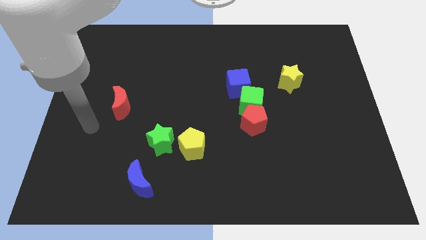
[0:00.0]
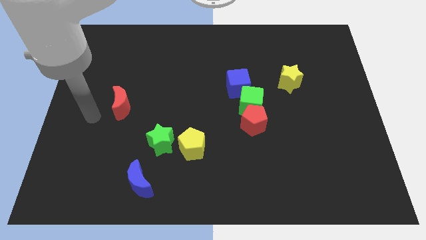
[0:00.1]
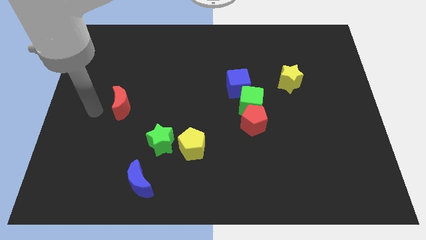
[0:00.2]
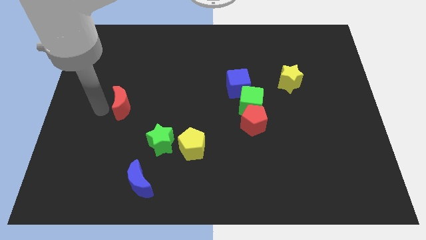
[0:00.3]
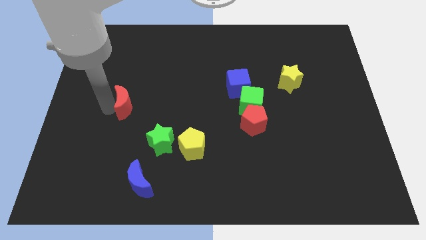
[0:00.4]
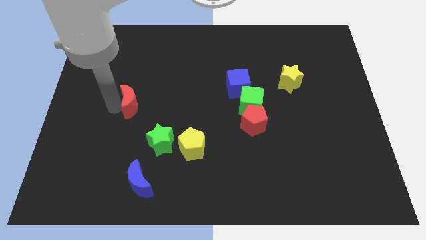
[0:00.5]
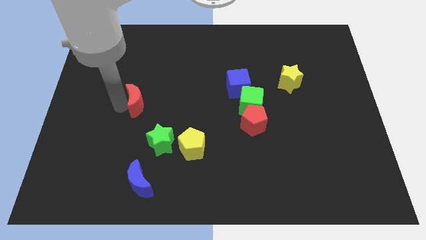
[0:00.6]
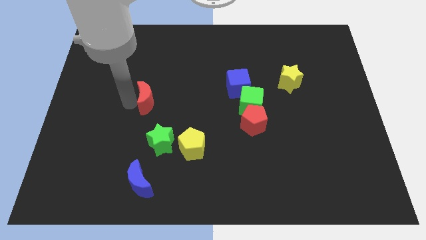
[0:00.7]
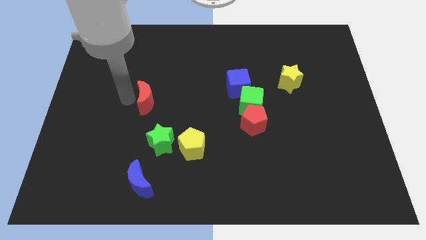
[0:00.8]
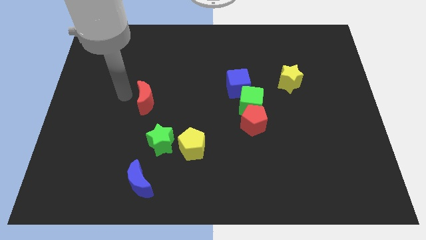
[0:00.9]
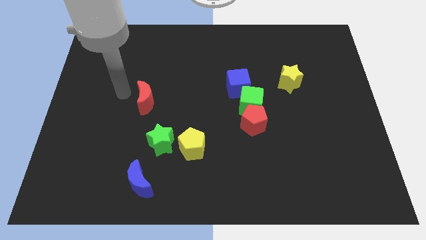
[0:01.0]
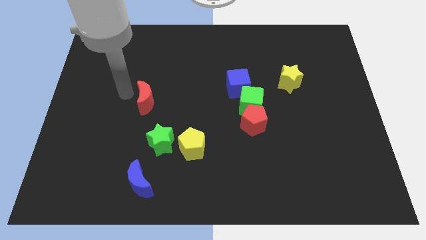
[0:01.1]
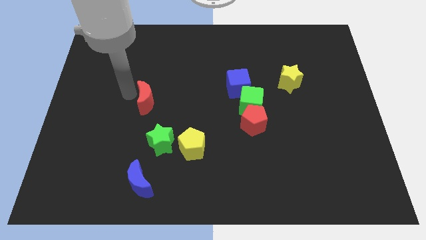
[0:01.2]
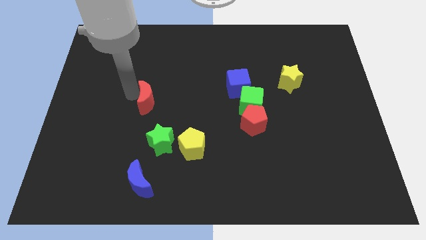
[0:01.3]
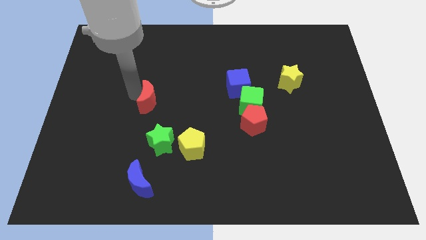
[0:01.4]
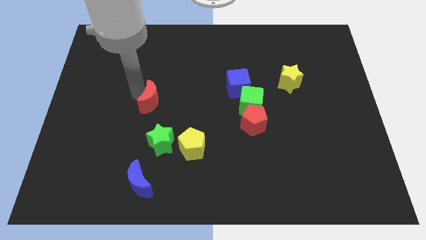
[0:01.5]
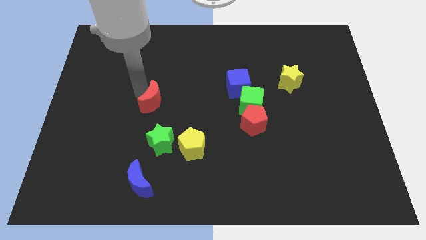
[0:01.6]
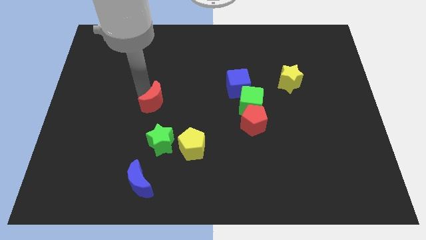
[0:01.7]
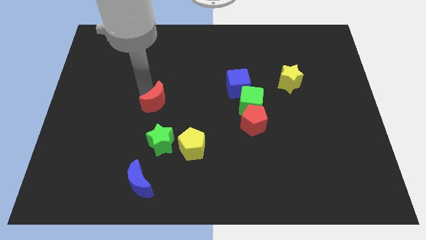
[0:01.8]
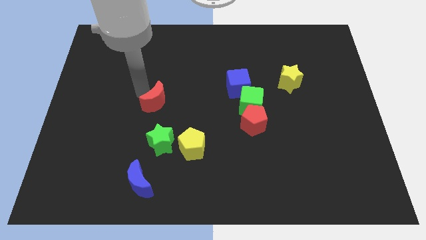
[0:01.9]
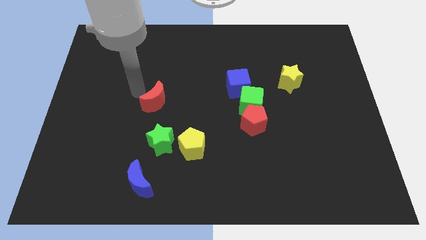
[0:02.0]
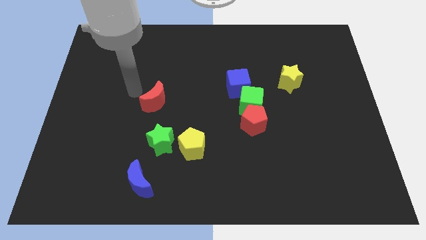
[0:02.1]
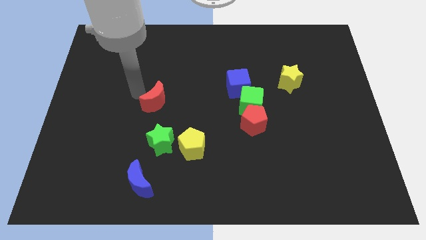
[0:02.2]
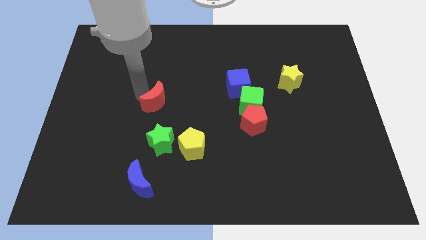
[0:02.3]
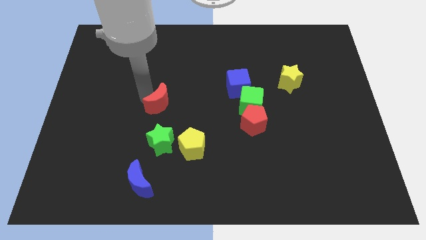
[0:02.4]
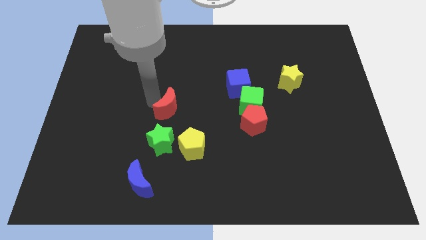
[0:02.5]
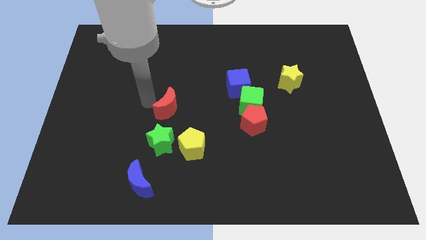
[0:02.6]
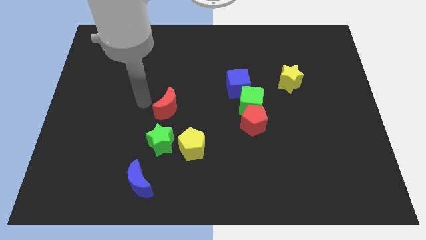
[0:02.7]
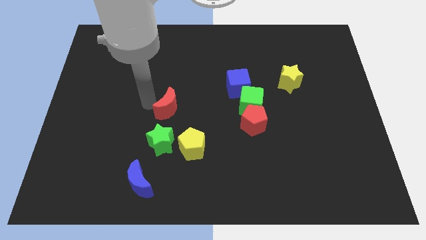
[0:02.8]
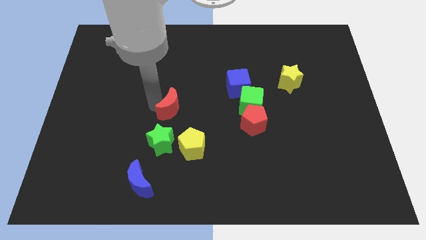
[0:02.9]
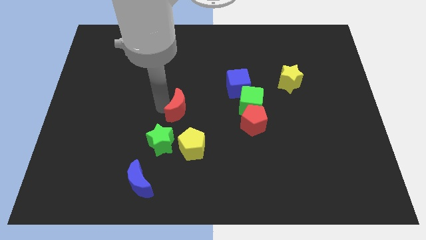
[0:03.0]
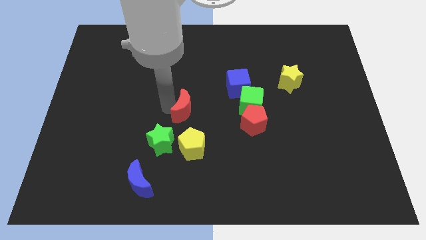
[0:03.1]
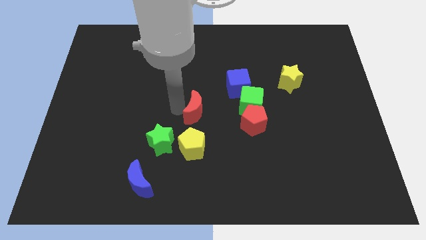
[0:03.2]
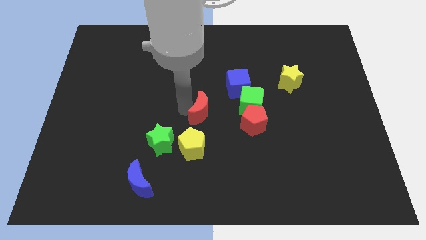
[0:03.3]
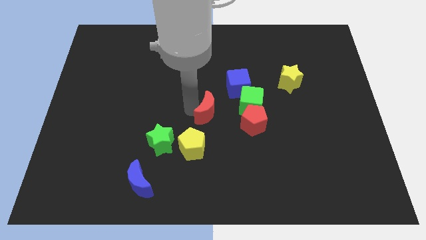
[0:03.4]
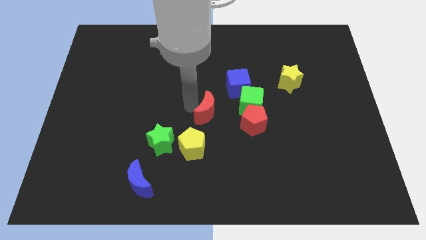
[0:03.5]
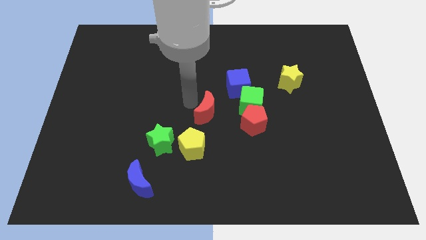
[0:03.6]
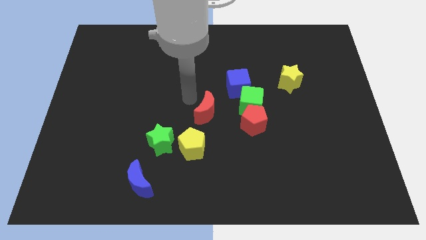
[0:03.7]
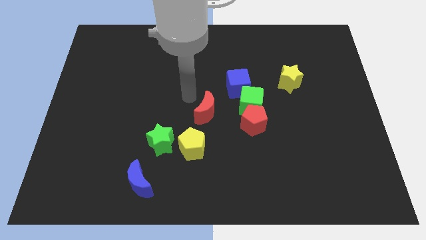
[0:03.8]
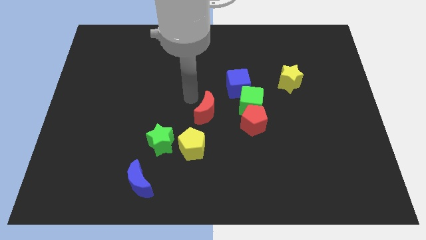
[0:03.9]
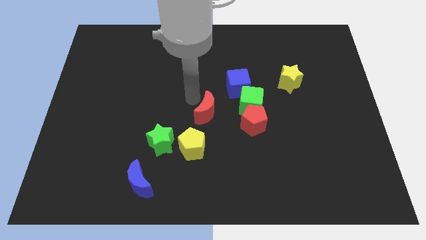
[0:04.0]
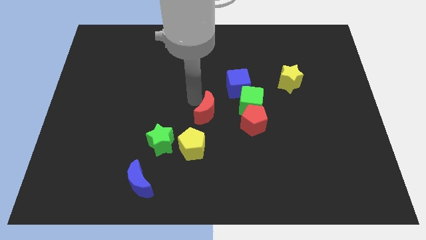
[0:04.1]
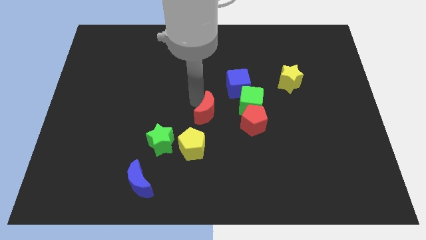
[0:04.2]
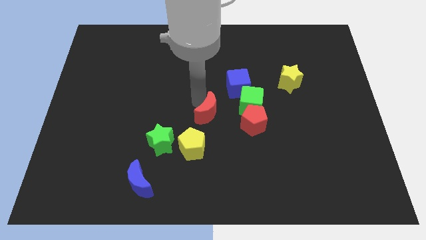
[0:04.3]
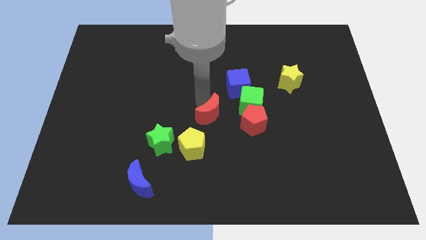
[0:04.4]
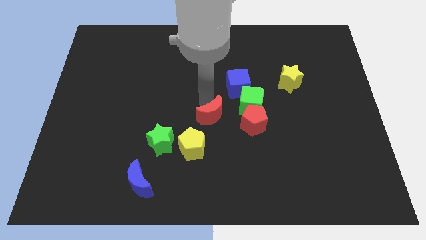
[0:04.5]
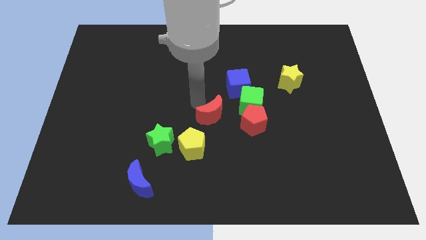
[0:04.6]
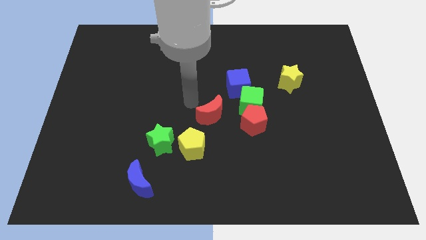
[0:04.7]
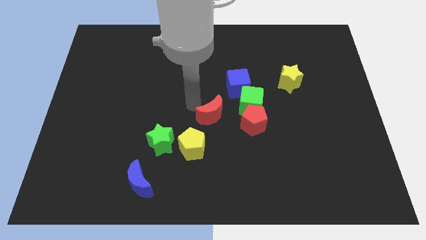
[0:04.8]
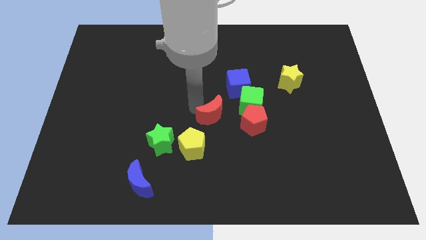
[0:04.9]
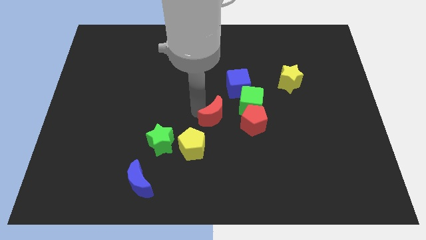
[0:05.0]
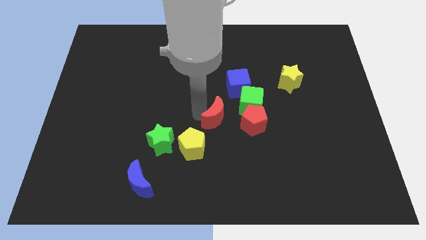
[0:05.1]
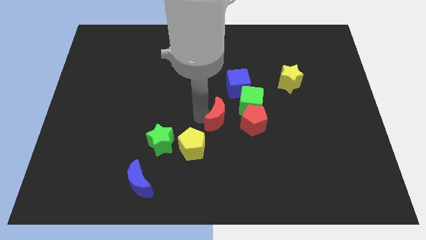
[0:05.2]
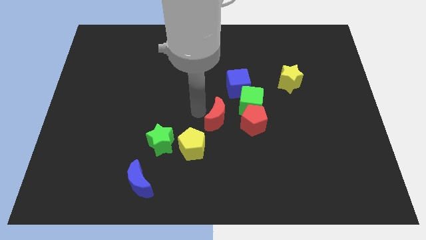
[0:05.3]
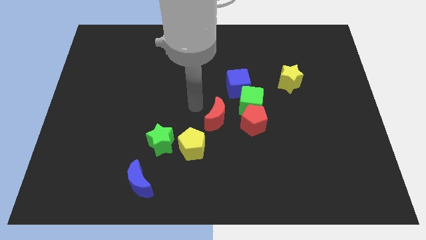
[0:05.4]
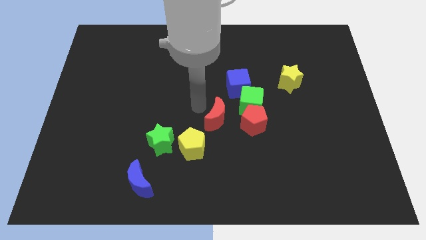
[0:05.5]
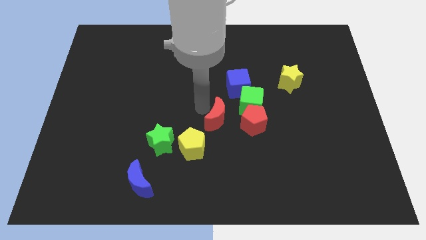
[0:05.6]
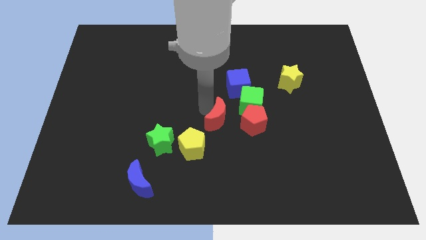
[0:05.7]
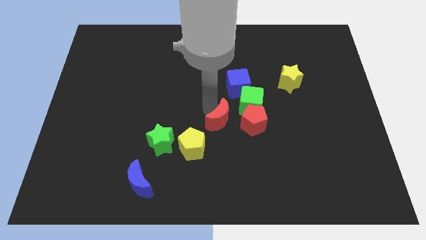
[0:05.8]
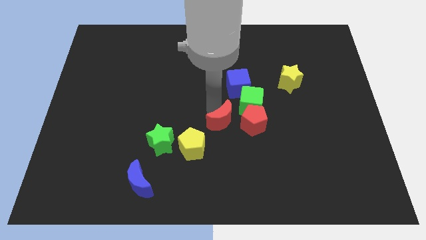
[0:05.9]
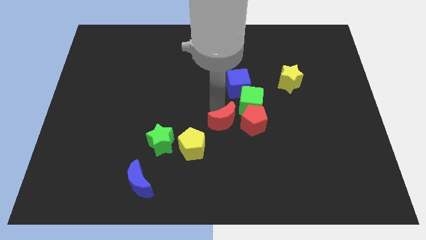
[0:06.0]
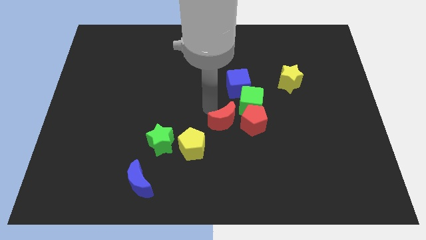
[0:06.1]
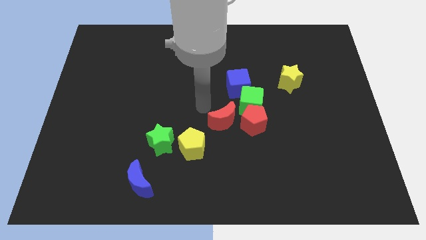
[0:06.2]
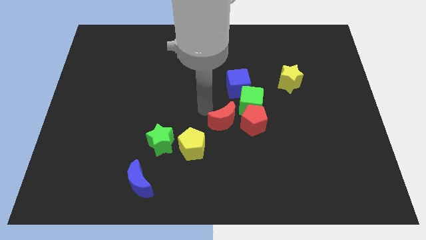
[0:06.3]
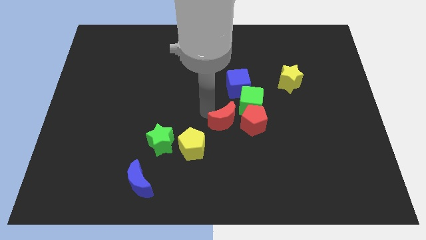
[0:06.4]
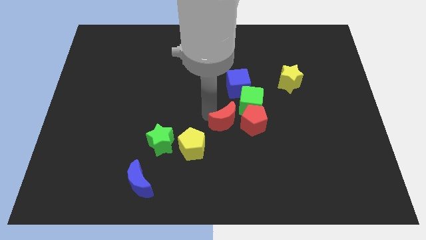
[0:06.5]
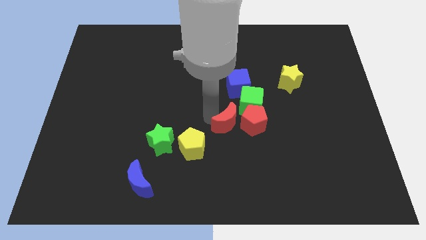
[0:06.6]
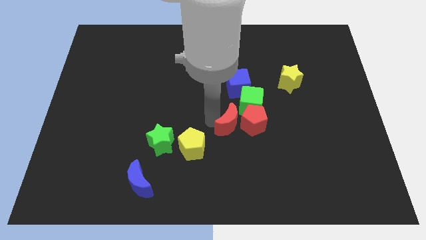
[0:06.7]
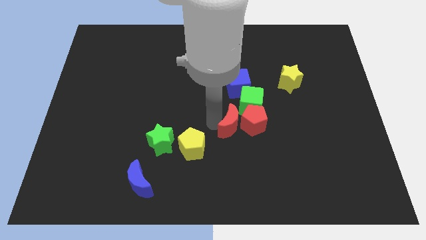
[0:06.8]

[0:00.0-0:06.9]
move the red moon below the green cube

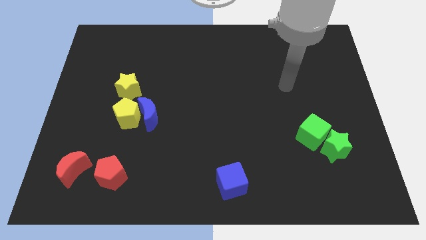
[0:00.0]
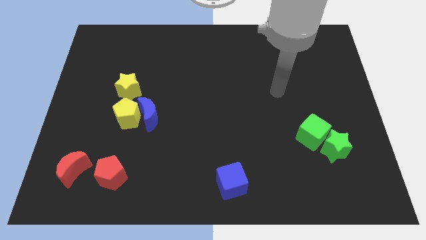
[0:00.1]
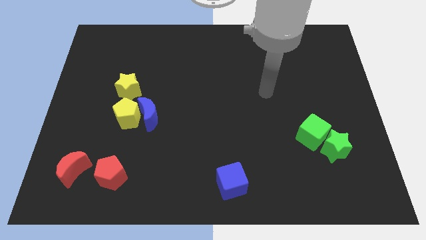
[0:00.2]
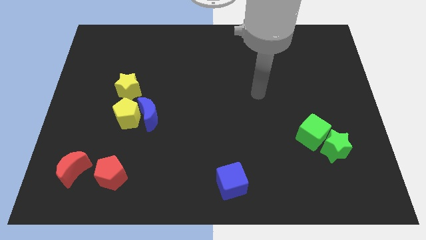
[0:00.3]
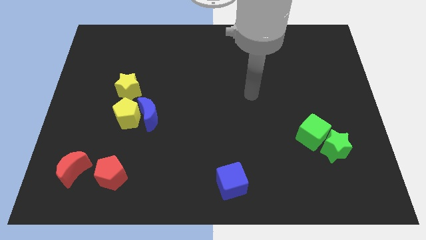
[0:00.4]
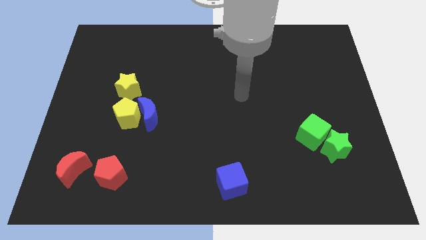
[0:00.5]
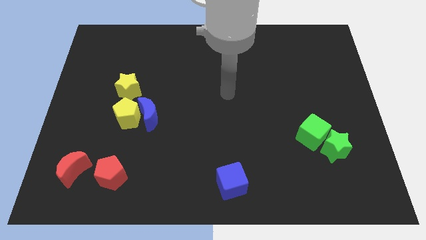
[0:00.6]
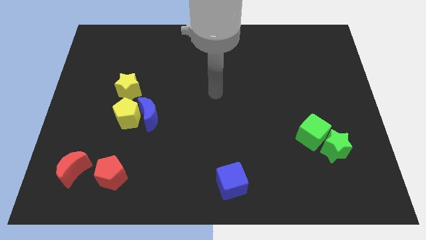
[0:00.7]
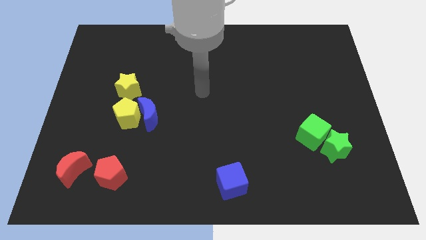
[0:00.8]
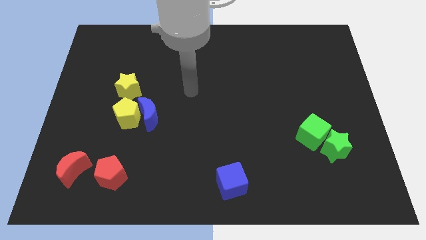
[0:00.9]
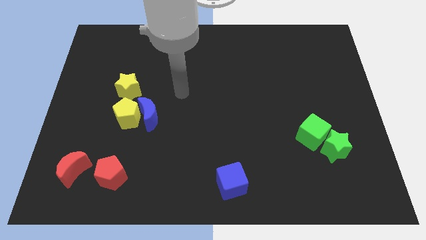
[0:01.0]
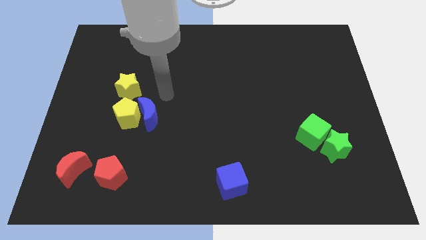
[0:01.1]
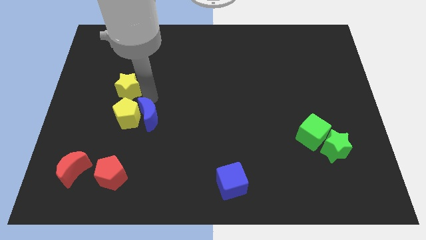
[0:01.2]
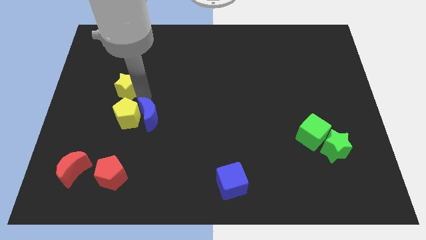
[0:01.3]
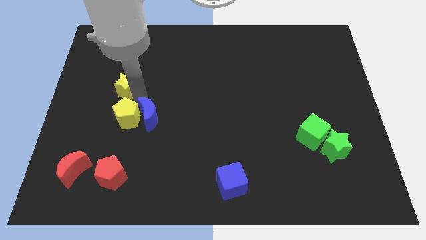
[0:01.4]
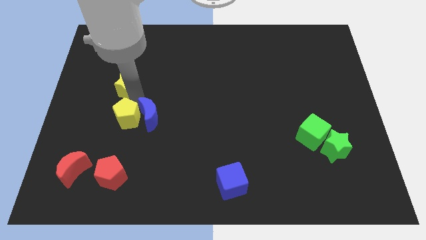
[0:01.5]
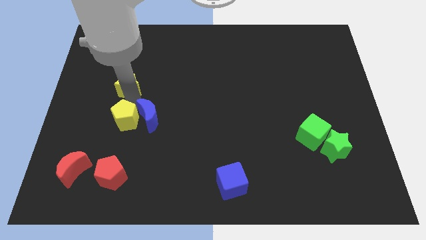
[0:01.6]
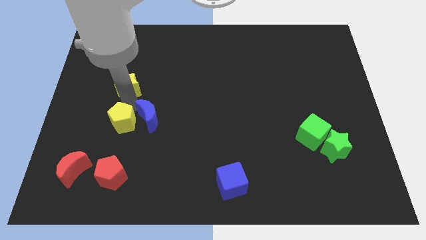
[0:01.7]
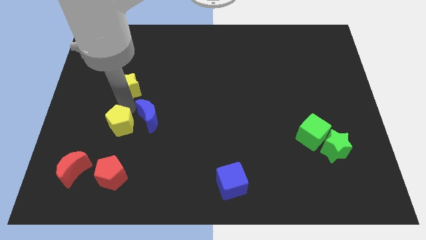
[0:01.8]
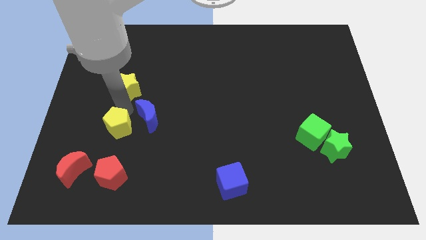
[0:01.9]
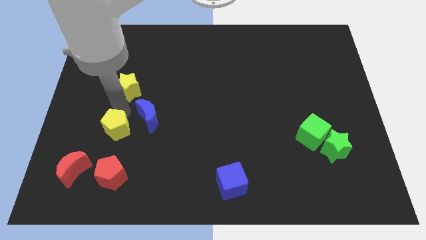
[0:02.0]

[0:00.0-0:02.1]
push the yellow pentagon to the top right of the red moon
